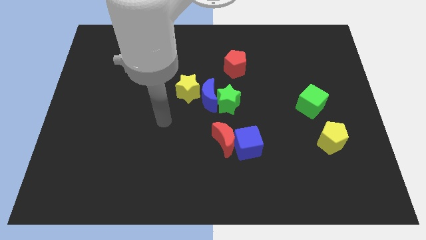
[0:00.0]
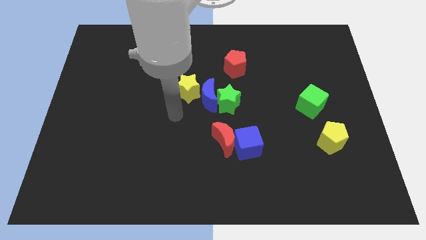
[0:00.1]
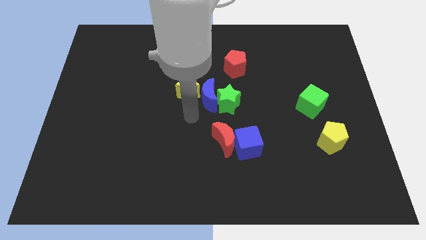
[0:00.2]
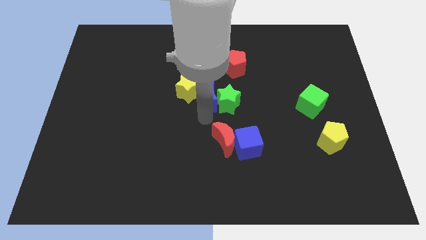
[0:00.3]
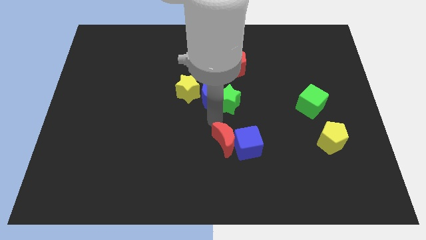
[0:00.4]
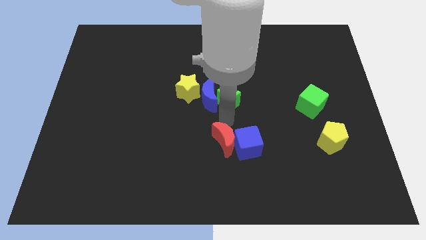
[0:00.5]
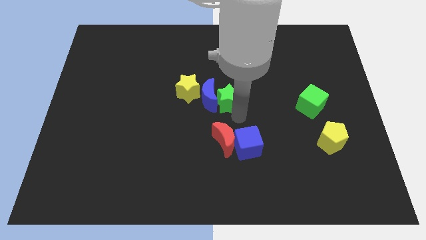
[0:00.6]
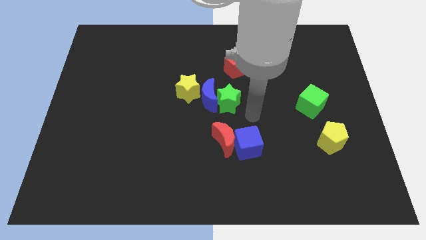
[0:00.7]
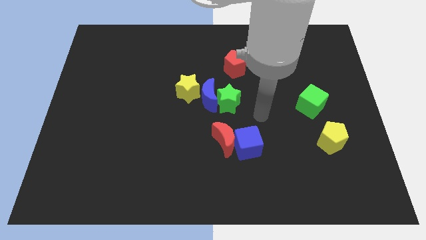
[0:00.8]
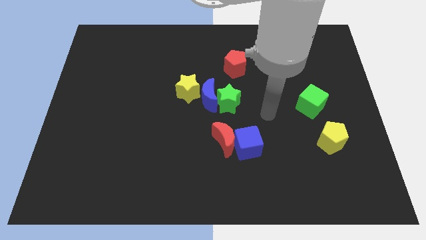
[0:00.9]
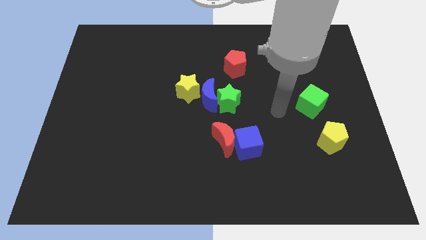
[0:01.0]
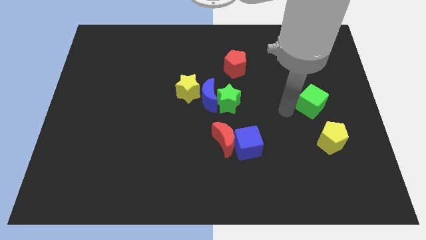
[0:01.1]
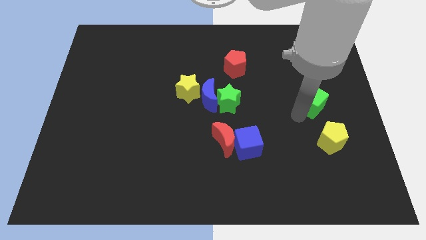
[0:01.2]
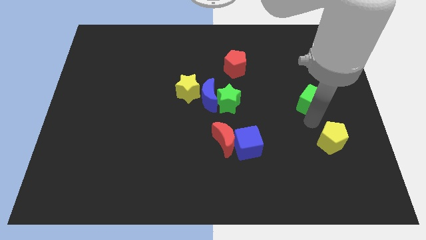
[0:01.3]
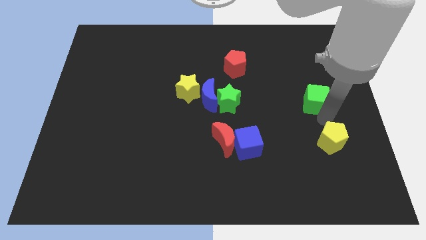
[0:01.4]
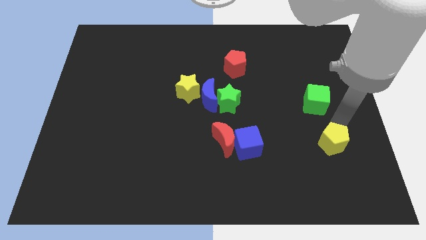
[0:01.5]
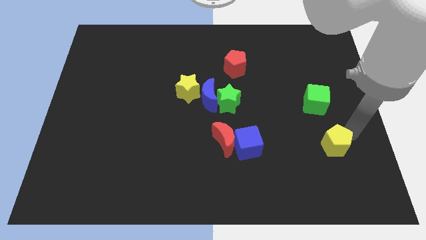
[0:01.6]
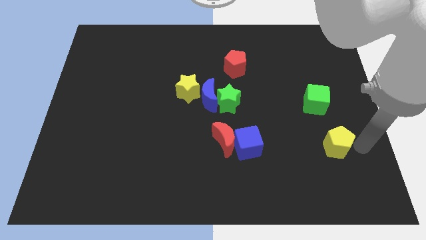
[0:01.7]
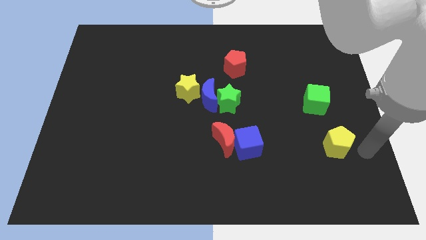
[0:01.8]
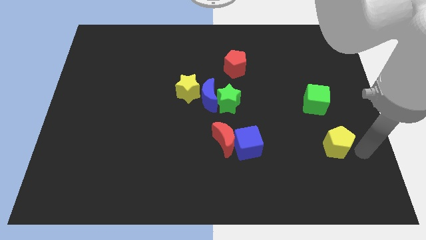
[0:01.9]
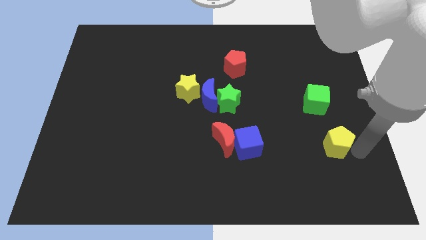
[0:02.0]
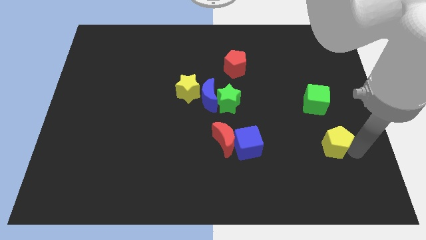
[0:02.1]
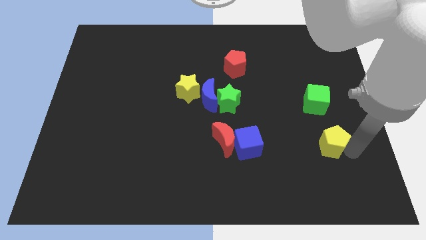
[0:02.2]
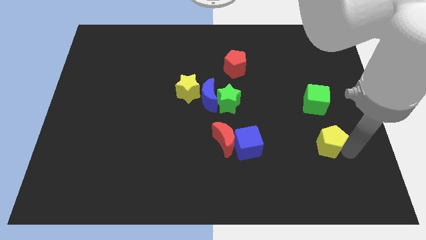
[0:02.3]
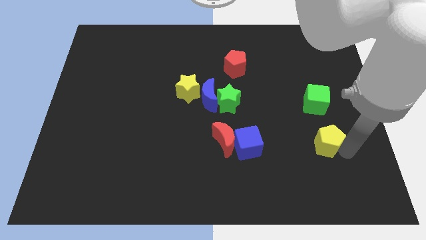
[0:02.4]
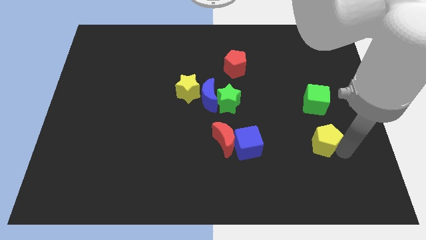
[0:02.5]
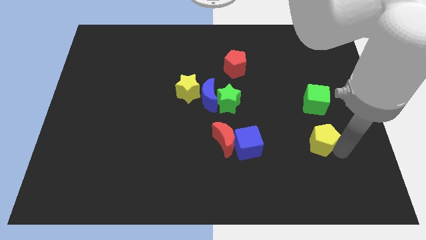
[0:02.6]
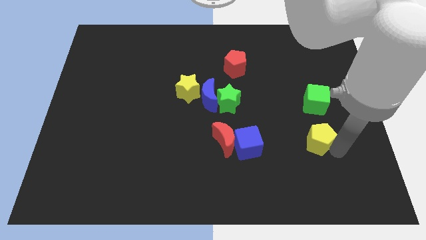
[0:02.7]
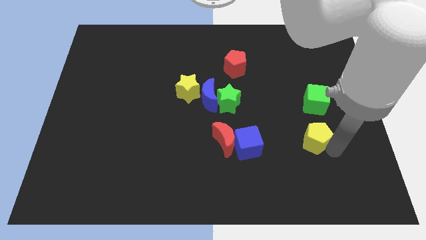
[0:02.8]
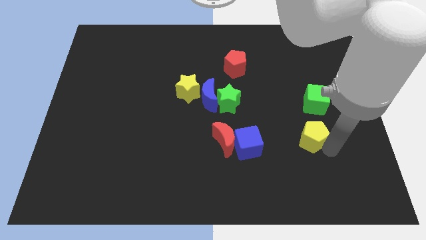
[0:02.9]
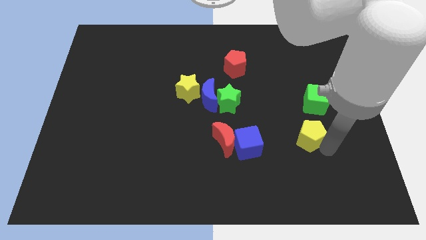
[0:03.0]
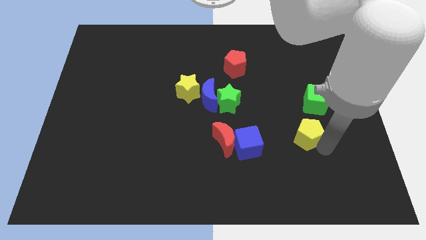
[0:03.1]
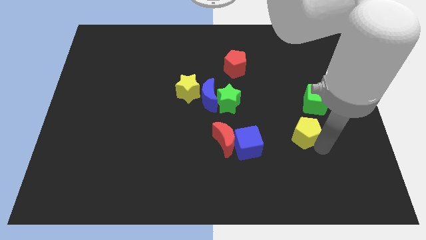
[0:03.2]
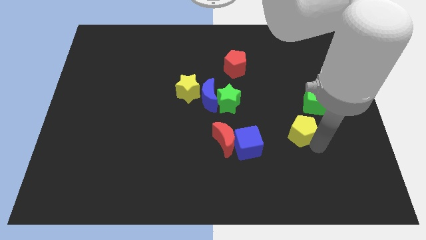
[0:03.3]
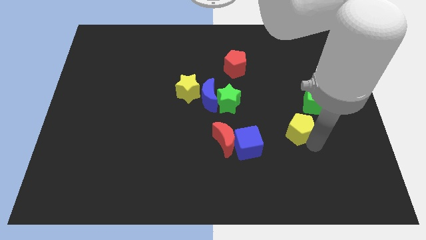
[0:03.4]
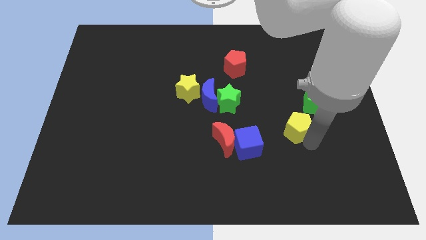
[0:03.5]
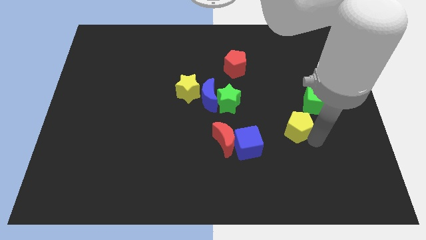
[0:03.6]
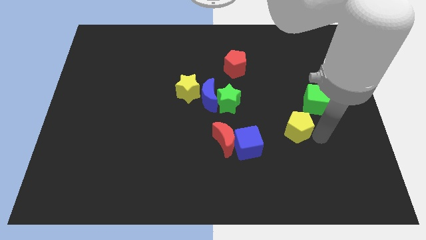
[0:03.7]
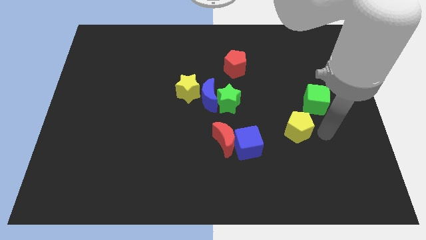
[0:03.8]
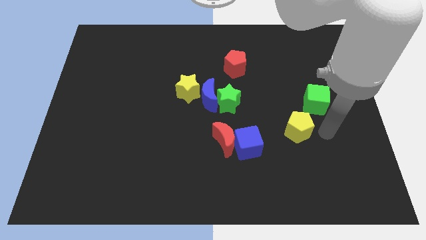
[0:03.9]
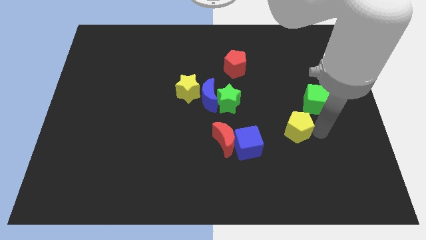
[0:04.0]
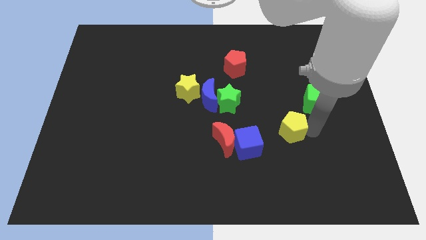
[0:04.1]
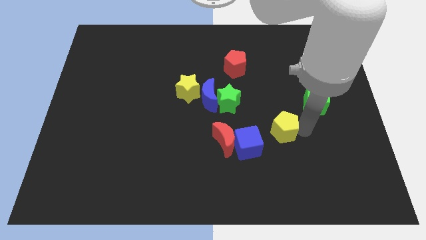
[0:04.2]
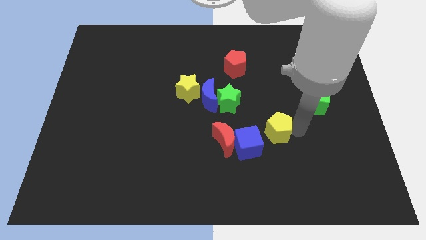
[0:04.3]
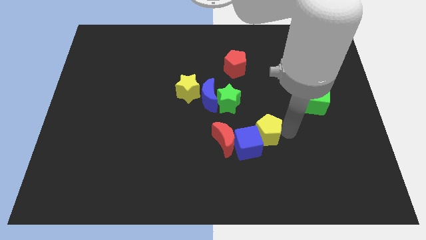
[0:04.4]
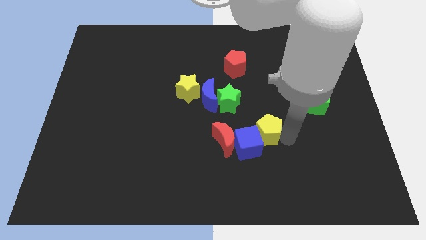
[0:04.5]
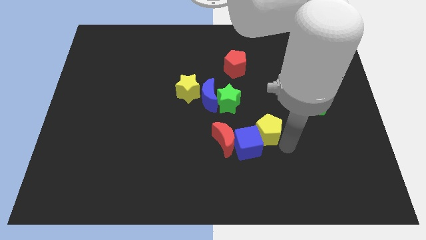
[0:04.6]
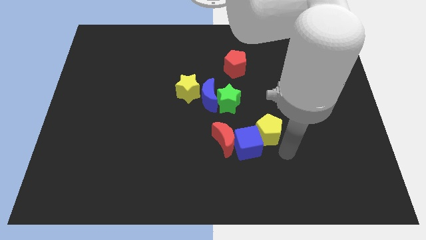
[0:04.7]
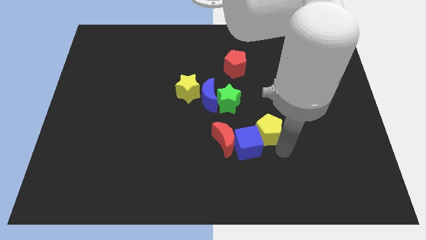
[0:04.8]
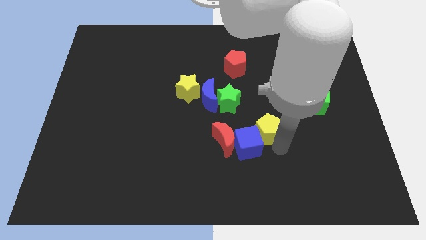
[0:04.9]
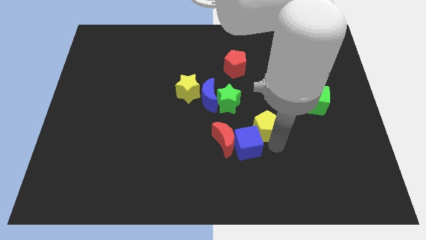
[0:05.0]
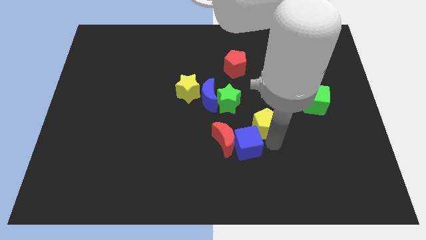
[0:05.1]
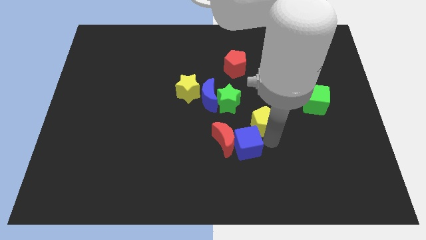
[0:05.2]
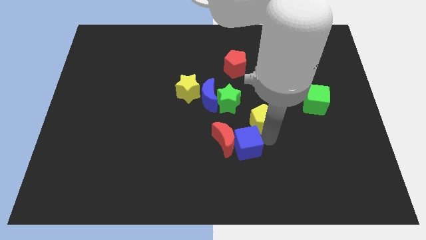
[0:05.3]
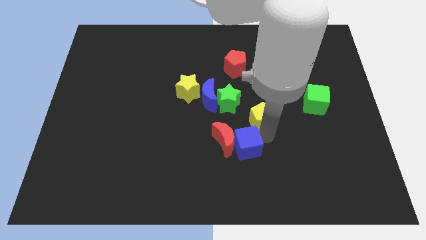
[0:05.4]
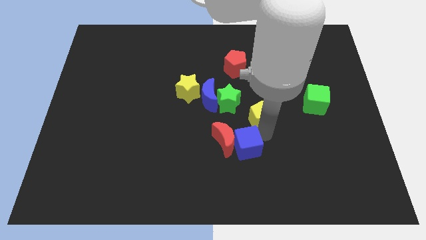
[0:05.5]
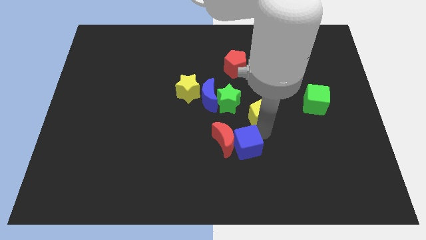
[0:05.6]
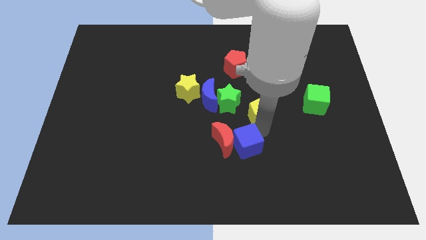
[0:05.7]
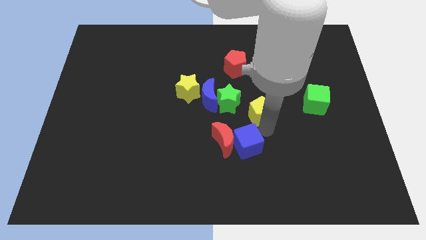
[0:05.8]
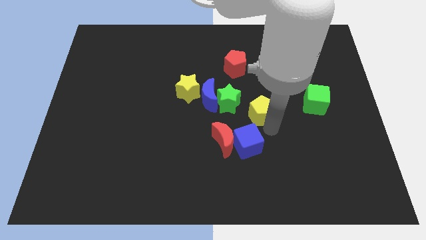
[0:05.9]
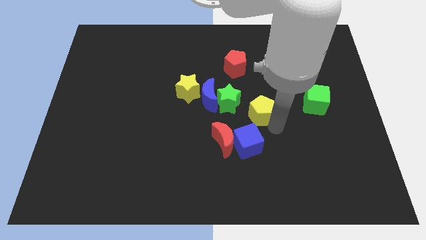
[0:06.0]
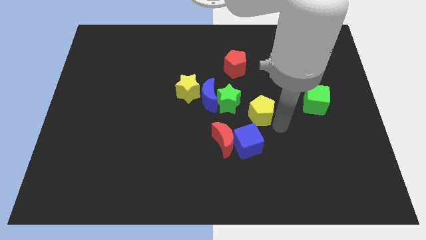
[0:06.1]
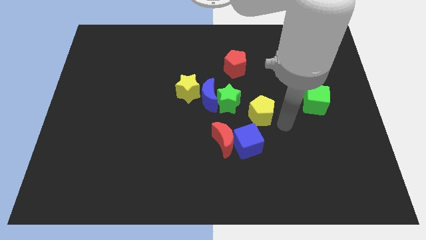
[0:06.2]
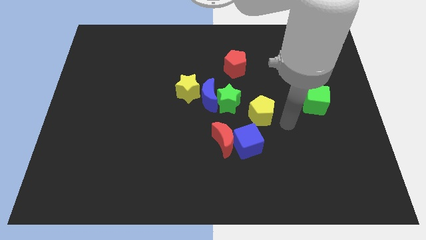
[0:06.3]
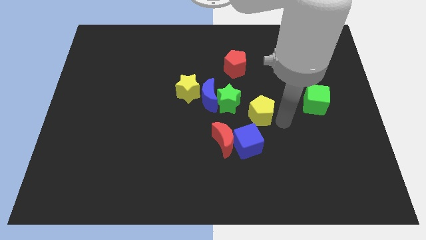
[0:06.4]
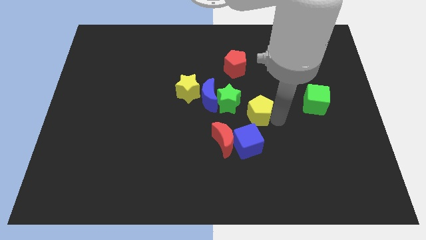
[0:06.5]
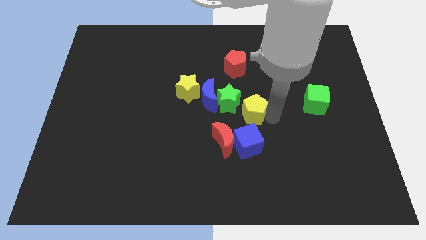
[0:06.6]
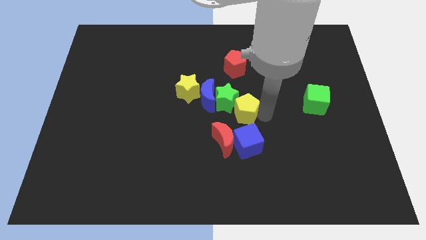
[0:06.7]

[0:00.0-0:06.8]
move the yellow pentagon next to the green star

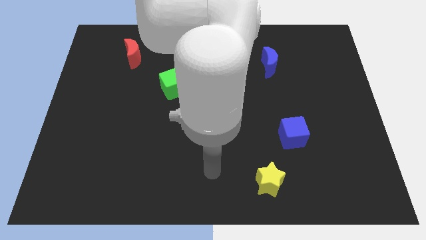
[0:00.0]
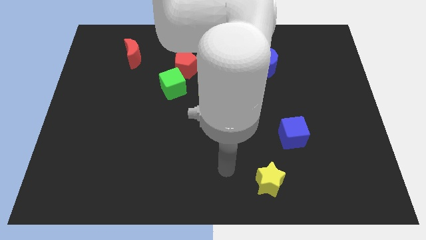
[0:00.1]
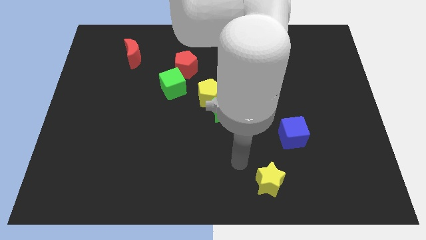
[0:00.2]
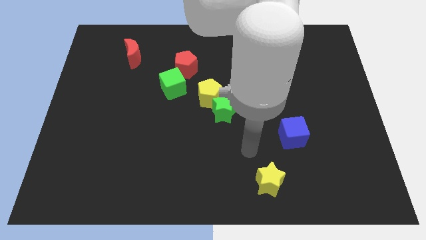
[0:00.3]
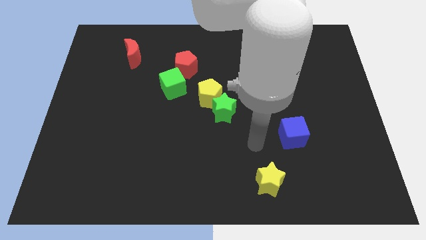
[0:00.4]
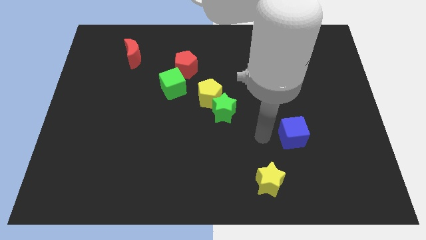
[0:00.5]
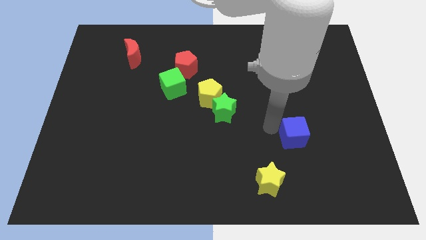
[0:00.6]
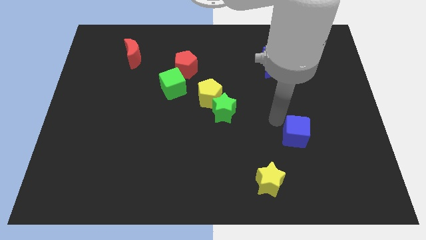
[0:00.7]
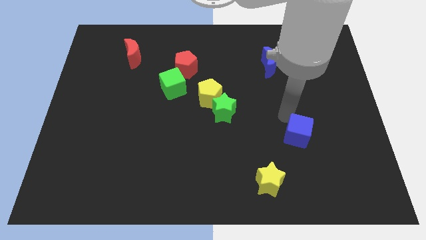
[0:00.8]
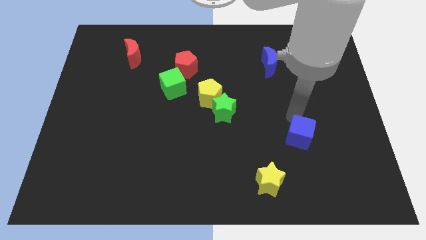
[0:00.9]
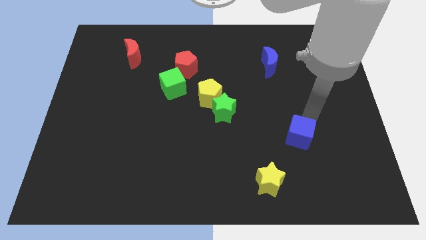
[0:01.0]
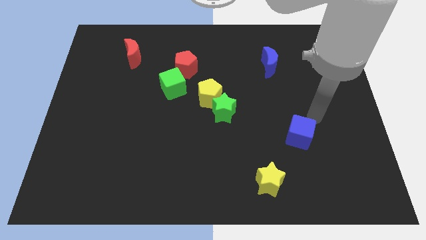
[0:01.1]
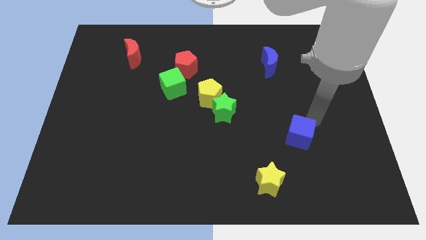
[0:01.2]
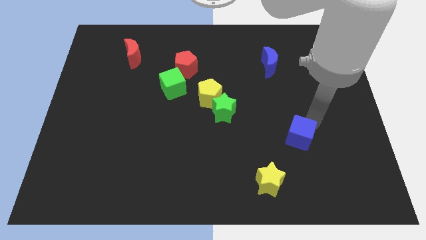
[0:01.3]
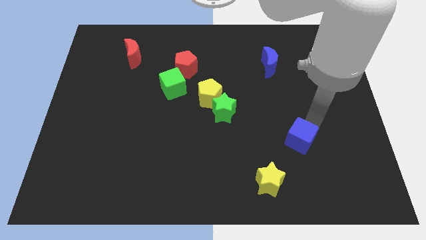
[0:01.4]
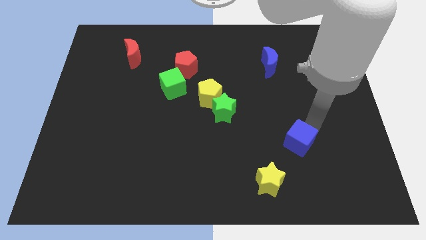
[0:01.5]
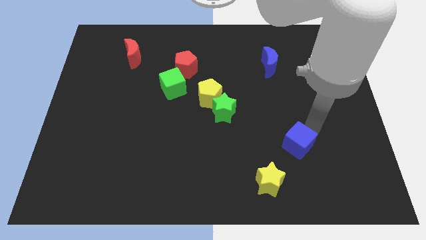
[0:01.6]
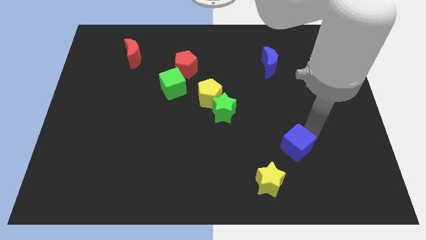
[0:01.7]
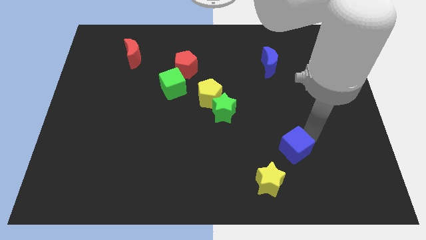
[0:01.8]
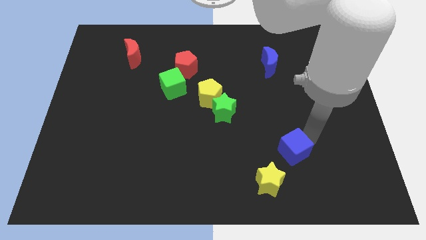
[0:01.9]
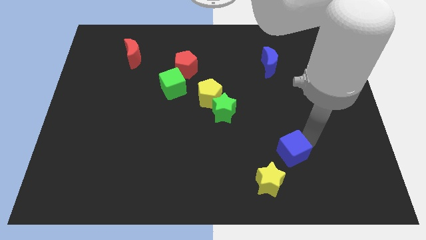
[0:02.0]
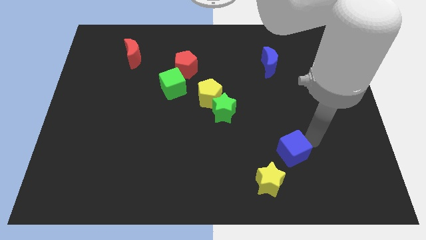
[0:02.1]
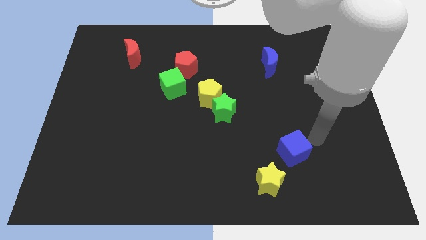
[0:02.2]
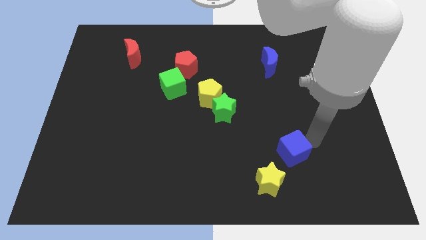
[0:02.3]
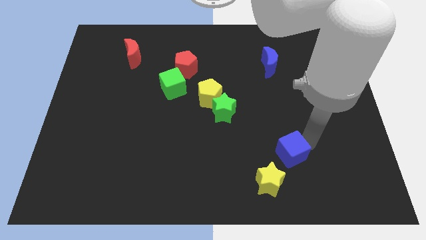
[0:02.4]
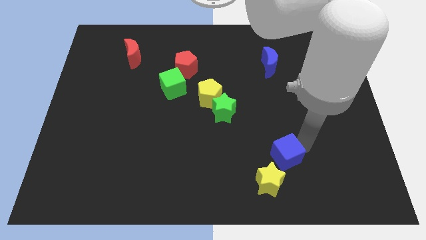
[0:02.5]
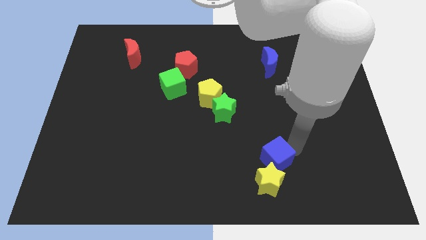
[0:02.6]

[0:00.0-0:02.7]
move the blue cube close to the yellow star
